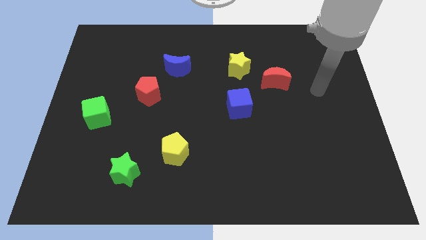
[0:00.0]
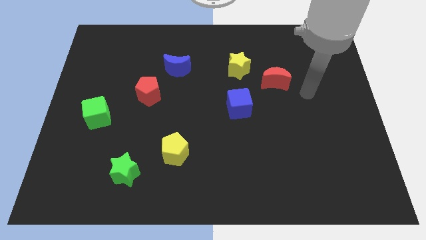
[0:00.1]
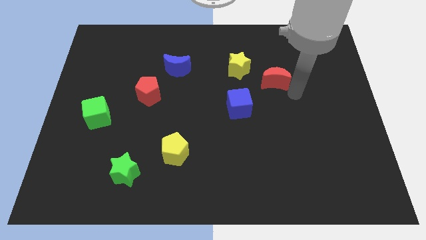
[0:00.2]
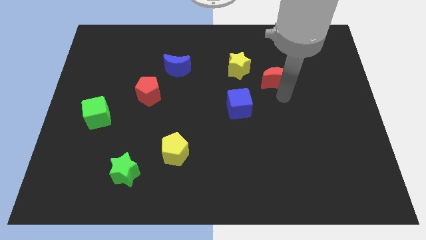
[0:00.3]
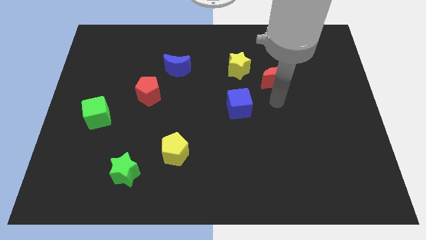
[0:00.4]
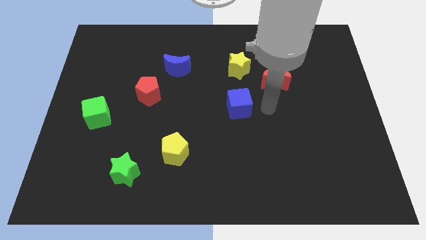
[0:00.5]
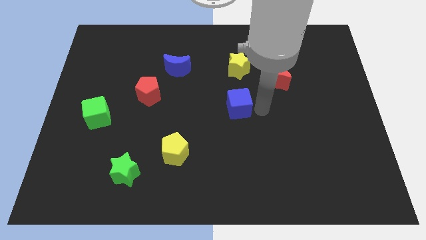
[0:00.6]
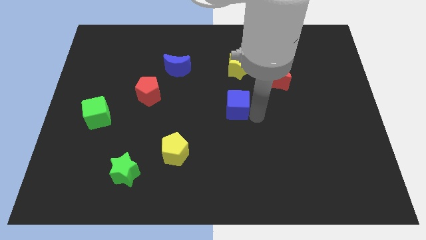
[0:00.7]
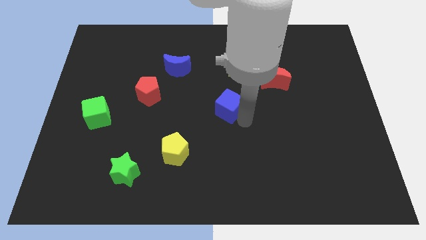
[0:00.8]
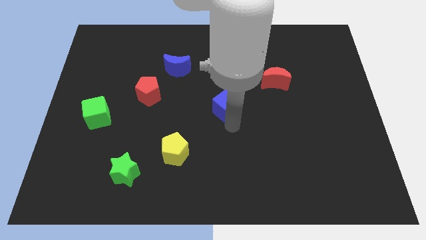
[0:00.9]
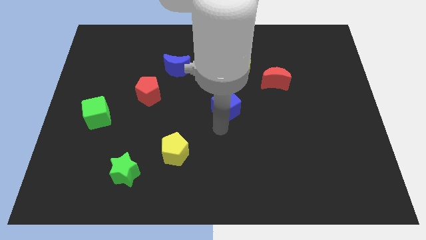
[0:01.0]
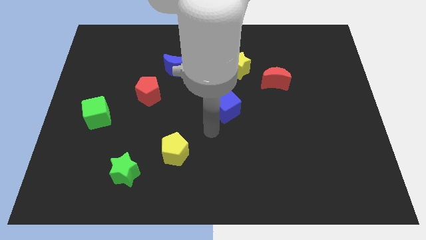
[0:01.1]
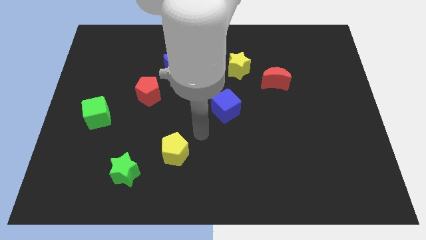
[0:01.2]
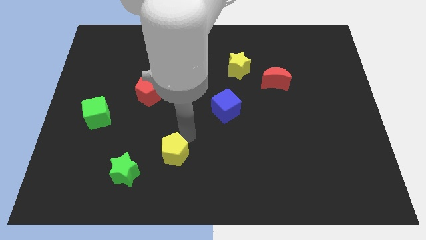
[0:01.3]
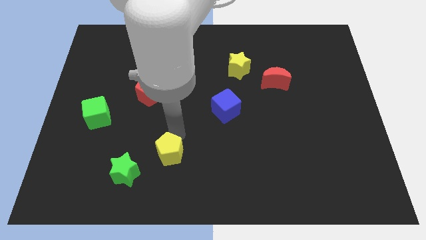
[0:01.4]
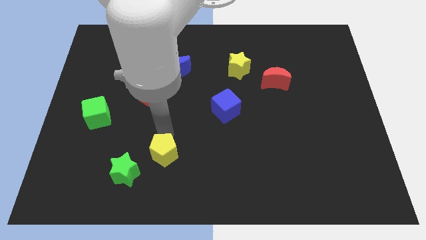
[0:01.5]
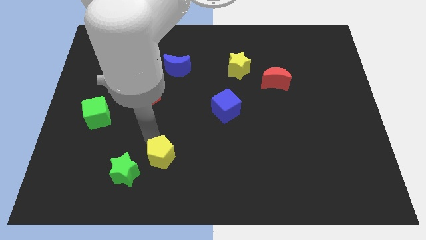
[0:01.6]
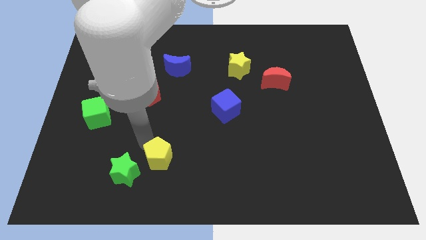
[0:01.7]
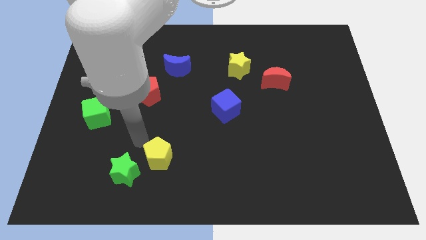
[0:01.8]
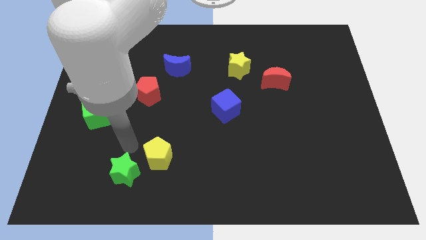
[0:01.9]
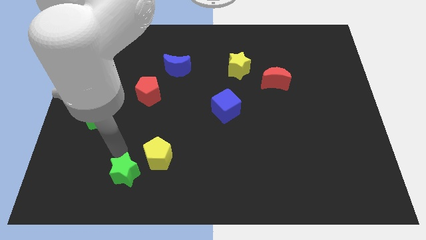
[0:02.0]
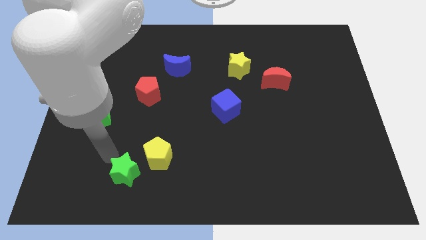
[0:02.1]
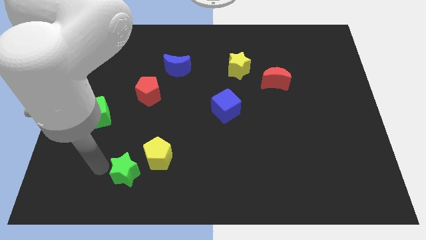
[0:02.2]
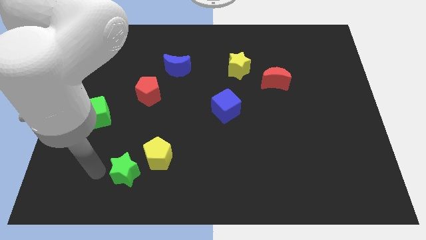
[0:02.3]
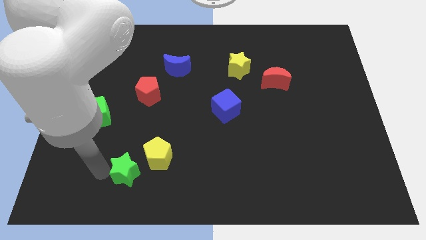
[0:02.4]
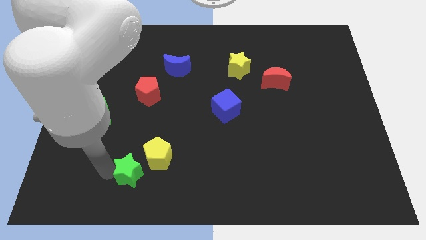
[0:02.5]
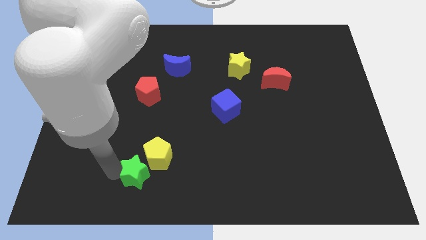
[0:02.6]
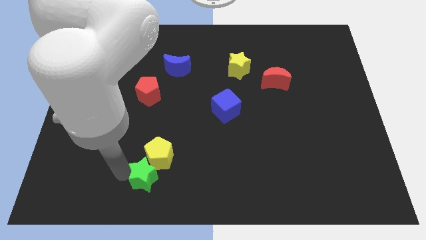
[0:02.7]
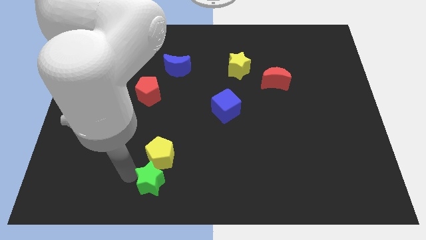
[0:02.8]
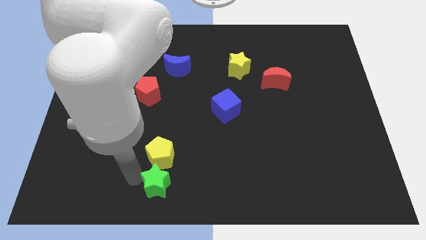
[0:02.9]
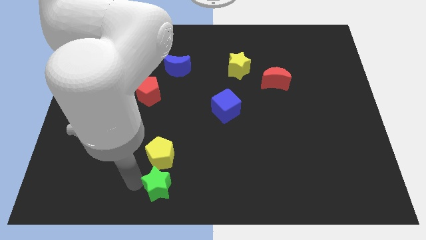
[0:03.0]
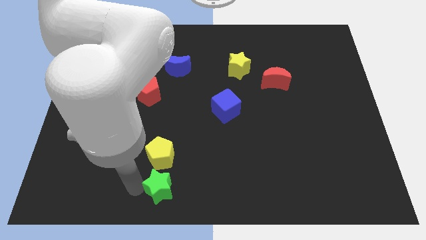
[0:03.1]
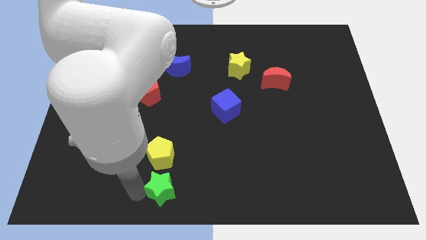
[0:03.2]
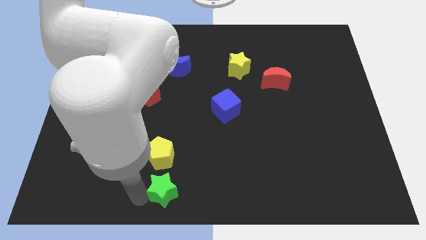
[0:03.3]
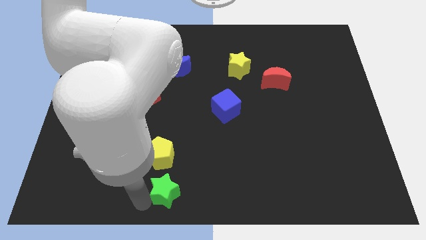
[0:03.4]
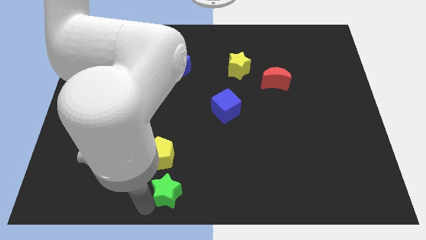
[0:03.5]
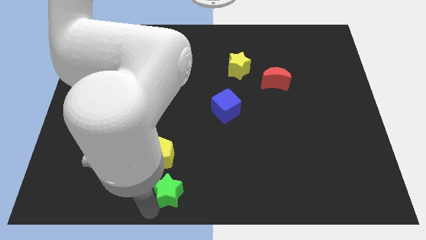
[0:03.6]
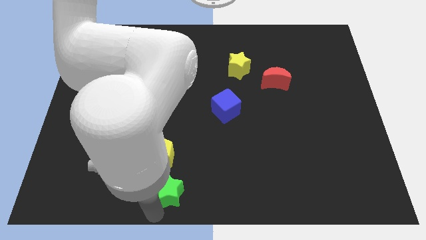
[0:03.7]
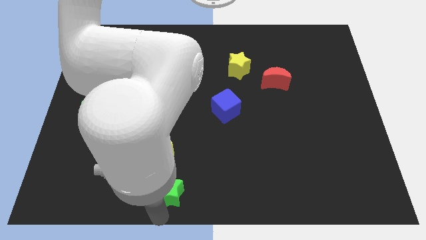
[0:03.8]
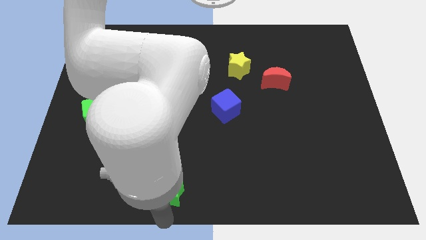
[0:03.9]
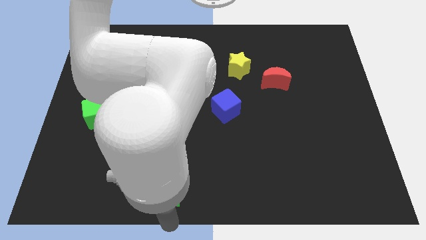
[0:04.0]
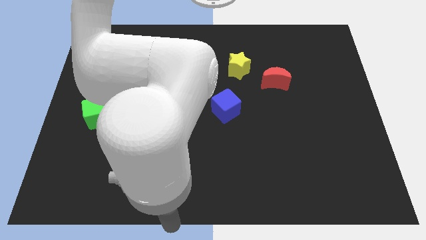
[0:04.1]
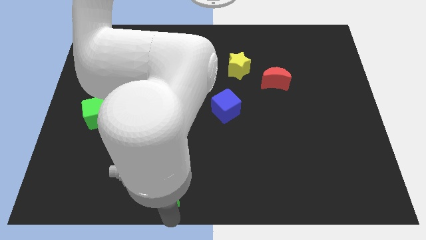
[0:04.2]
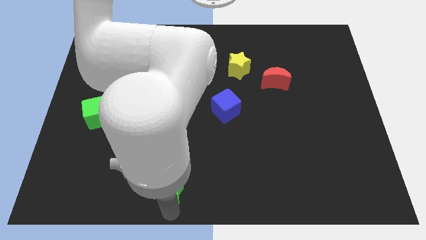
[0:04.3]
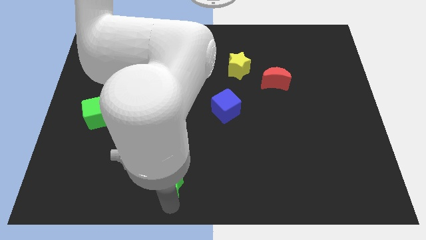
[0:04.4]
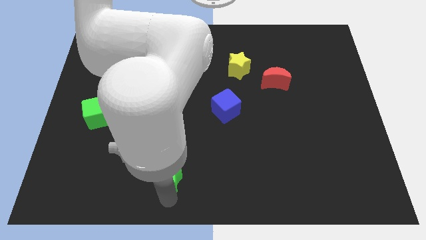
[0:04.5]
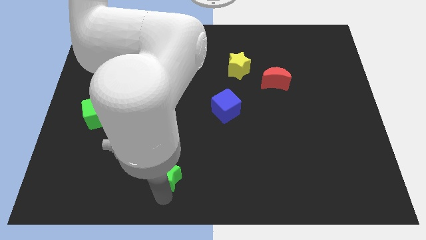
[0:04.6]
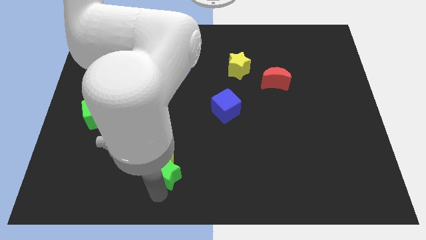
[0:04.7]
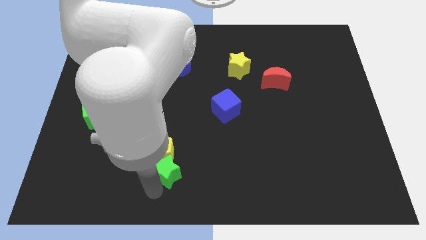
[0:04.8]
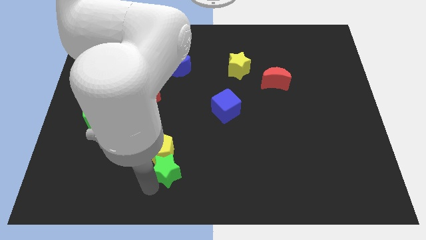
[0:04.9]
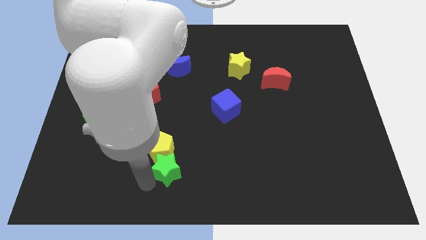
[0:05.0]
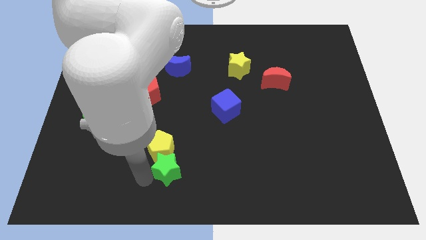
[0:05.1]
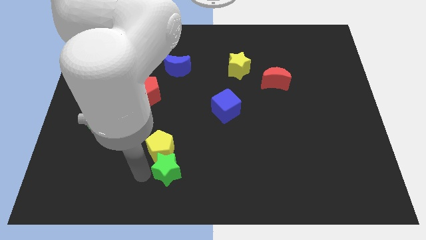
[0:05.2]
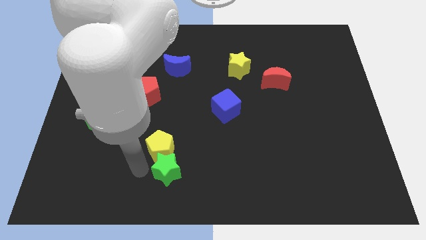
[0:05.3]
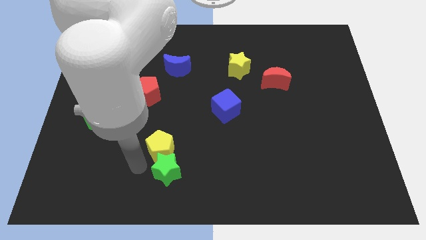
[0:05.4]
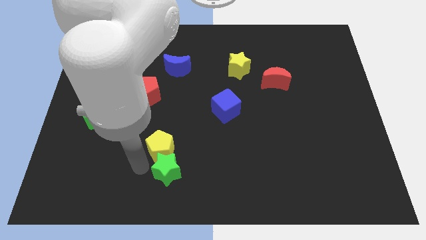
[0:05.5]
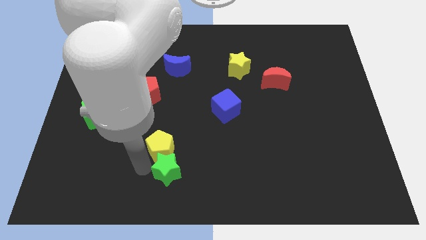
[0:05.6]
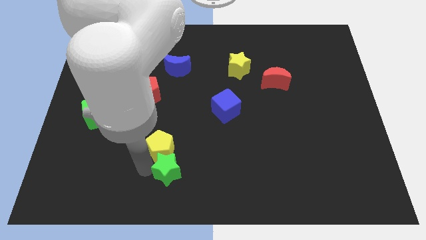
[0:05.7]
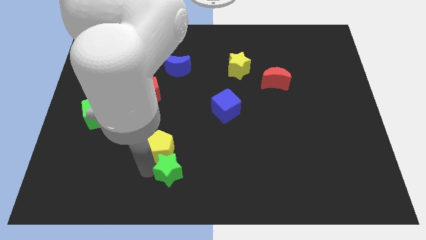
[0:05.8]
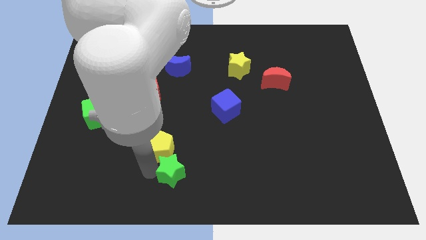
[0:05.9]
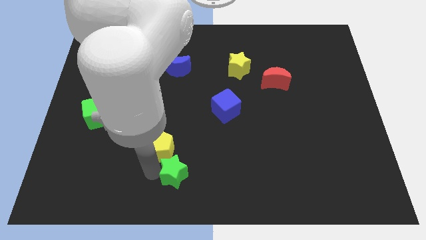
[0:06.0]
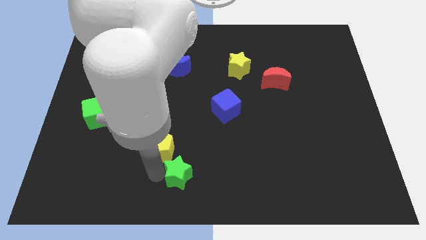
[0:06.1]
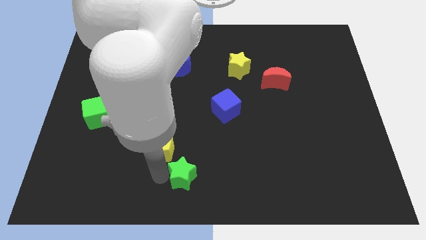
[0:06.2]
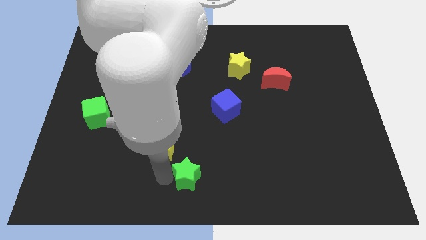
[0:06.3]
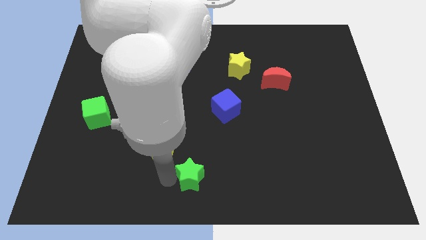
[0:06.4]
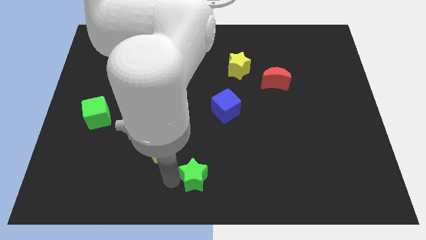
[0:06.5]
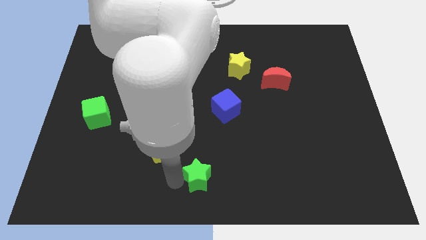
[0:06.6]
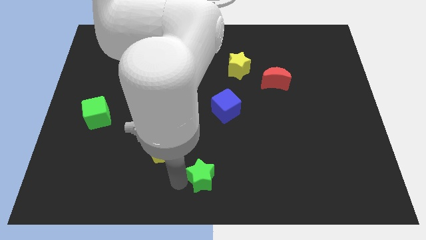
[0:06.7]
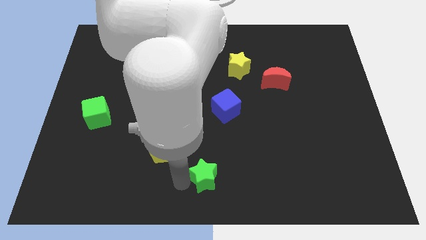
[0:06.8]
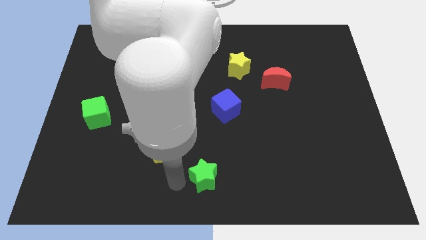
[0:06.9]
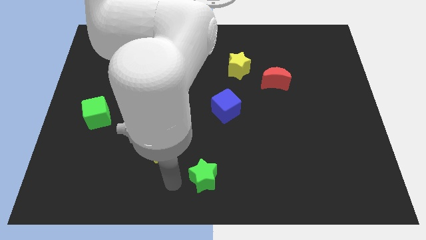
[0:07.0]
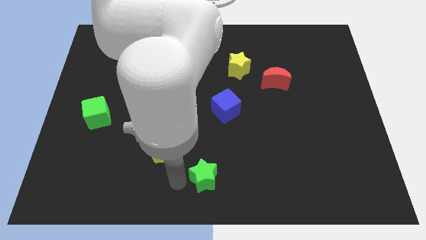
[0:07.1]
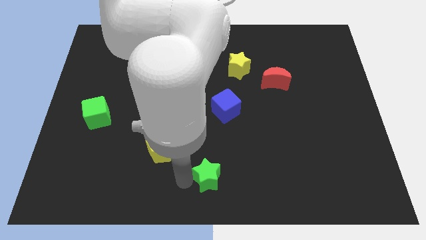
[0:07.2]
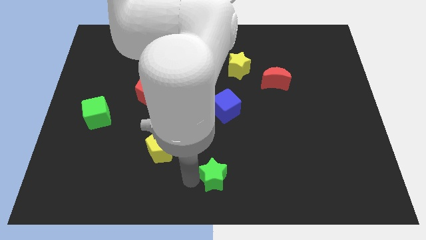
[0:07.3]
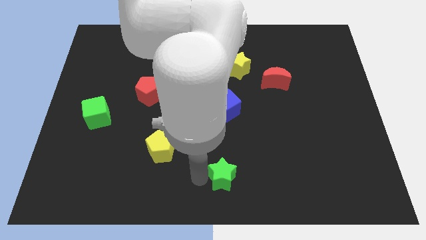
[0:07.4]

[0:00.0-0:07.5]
slide the green star to the right

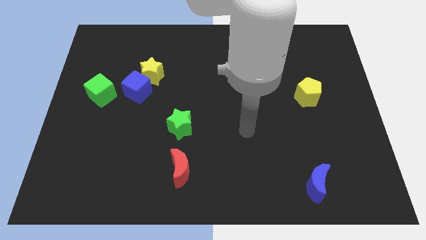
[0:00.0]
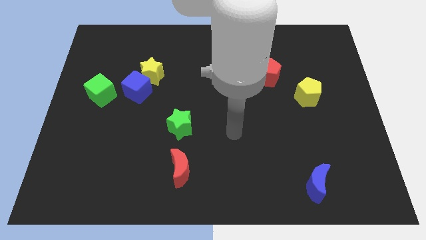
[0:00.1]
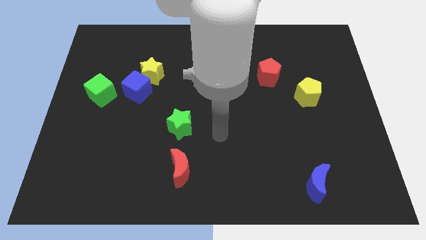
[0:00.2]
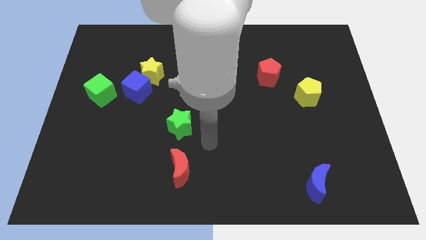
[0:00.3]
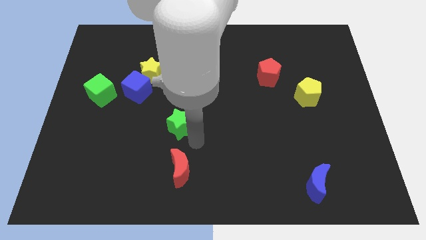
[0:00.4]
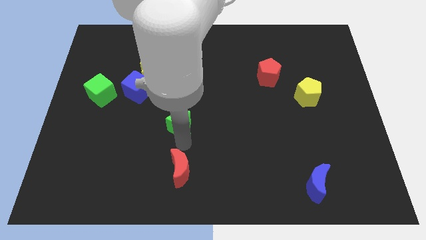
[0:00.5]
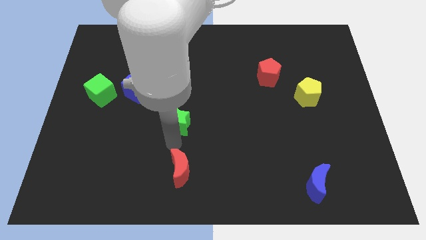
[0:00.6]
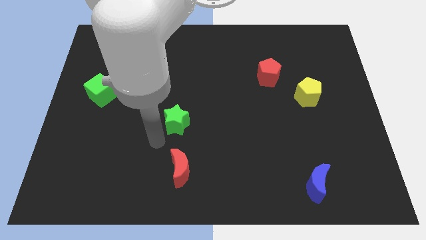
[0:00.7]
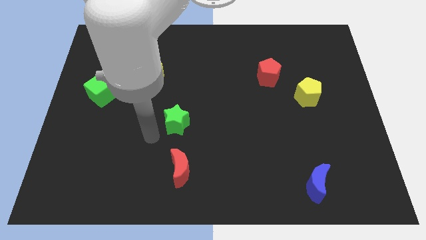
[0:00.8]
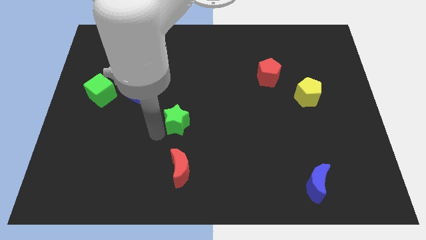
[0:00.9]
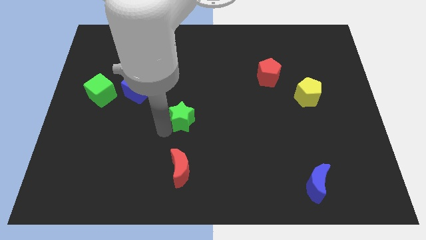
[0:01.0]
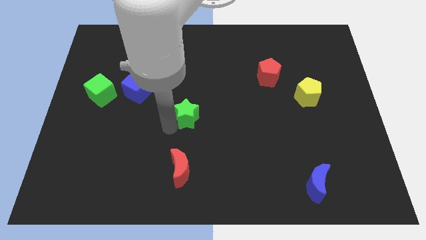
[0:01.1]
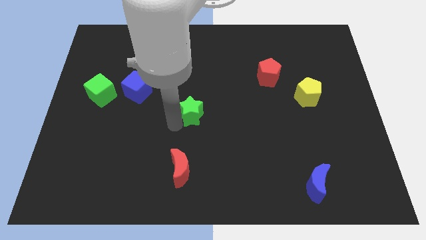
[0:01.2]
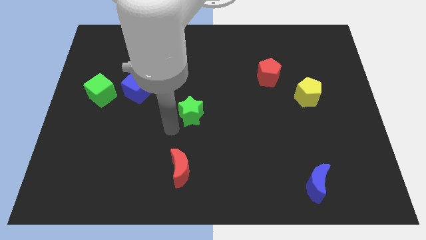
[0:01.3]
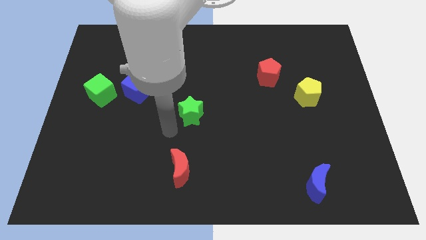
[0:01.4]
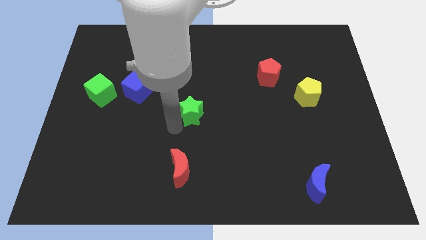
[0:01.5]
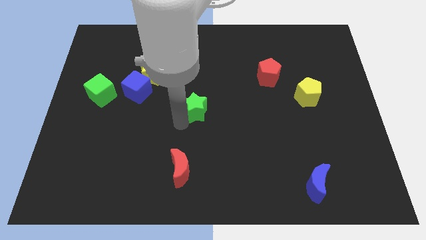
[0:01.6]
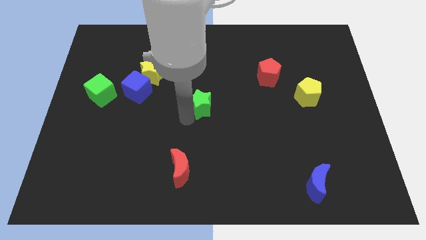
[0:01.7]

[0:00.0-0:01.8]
move the green star a little bit up and then right
